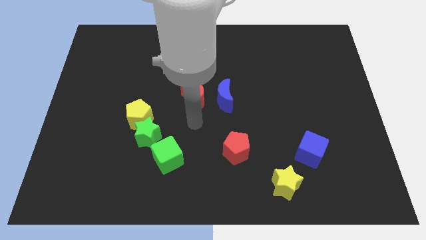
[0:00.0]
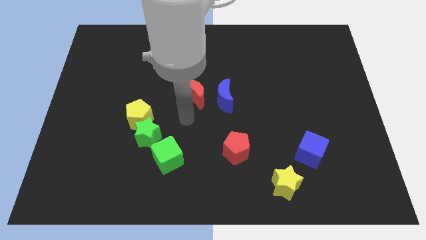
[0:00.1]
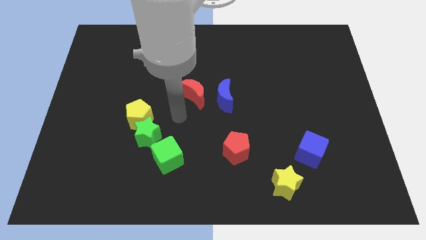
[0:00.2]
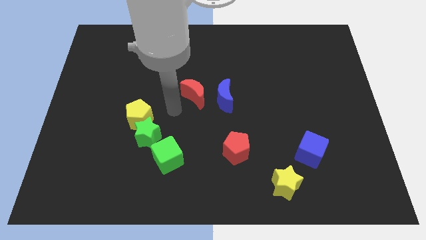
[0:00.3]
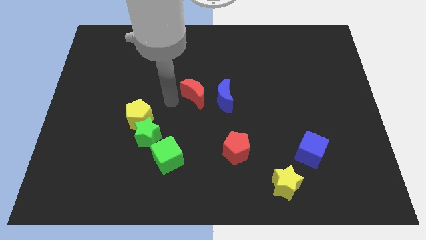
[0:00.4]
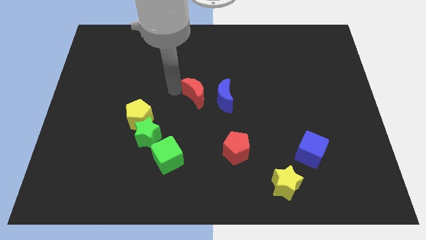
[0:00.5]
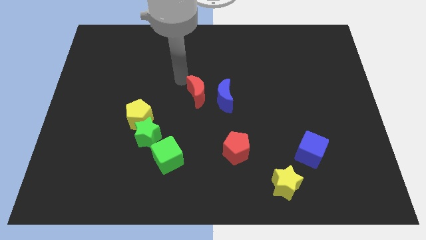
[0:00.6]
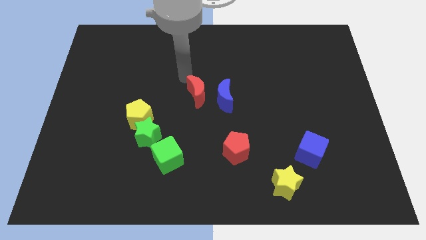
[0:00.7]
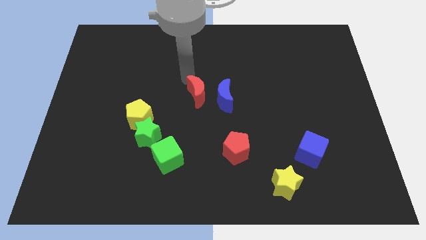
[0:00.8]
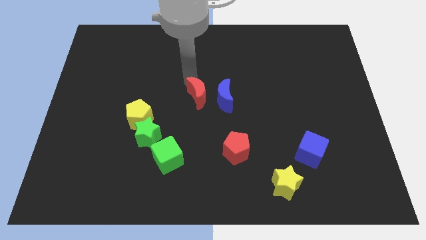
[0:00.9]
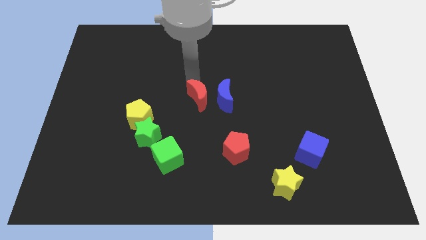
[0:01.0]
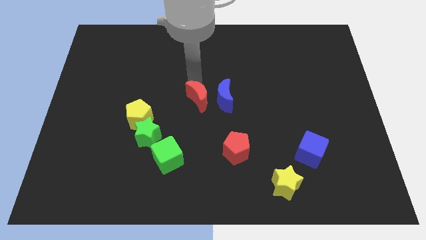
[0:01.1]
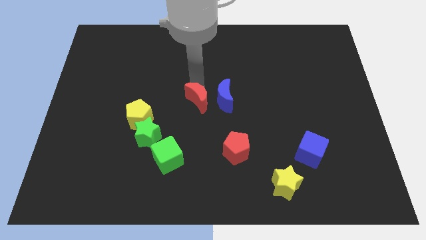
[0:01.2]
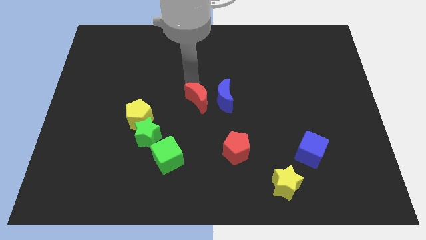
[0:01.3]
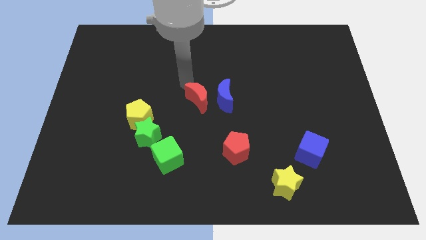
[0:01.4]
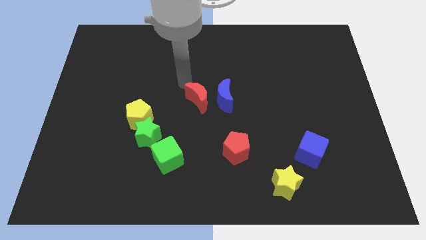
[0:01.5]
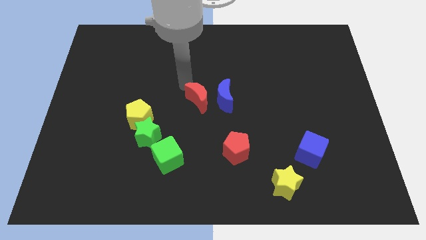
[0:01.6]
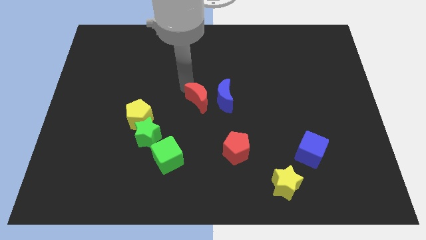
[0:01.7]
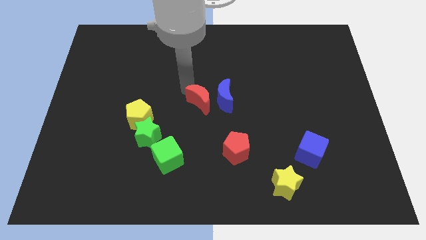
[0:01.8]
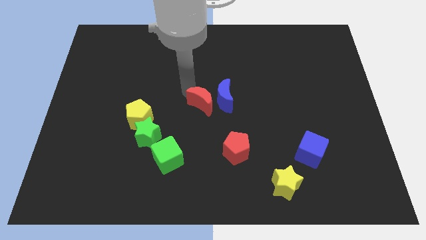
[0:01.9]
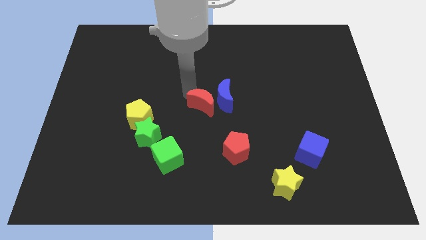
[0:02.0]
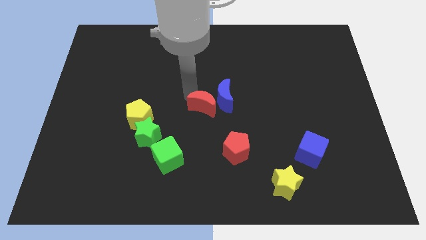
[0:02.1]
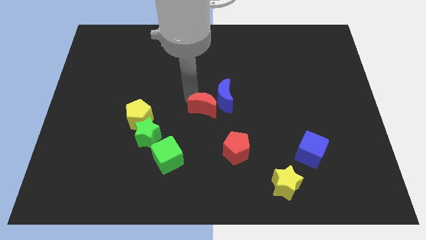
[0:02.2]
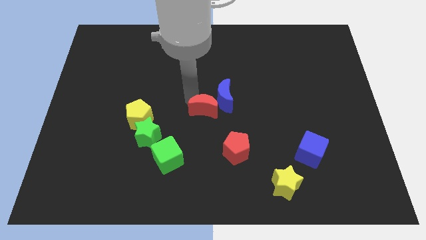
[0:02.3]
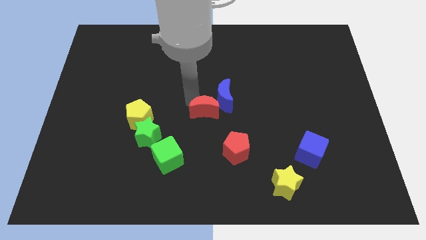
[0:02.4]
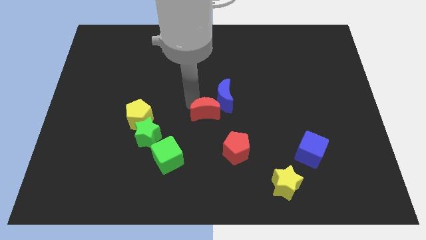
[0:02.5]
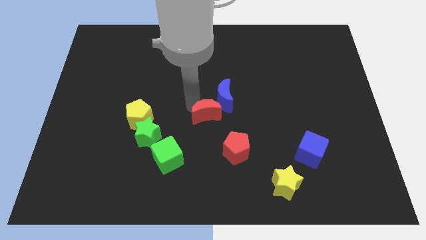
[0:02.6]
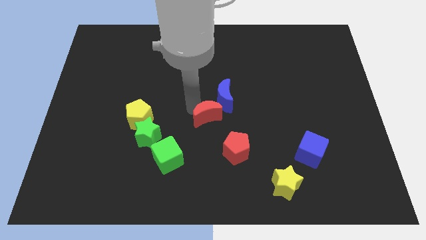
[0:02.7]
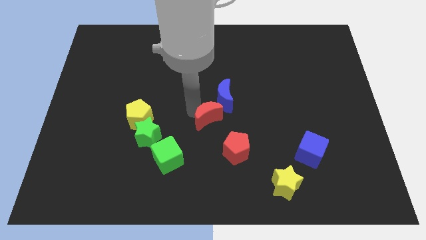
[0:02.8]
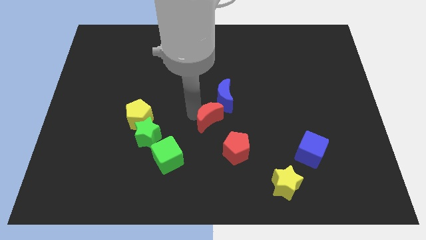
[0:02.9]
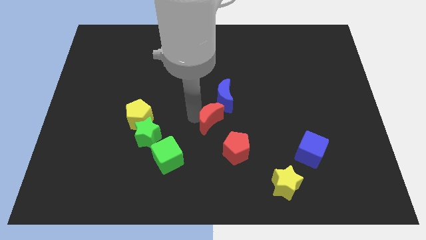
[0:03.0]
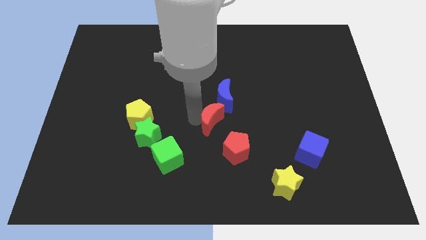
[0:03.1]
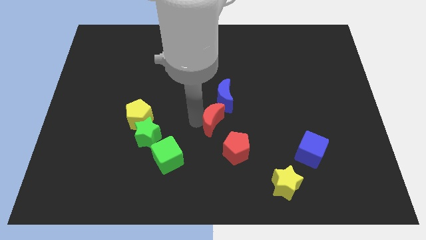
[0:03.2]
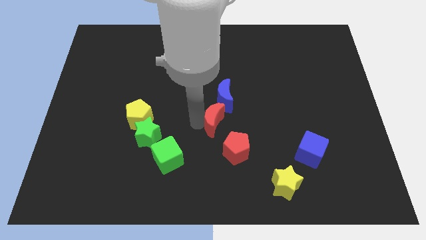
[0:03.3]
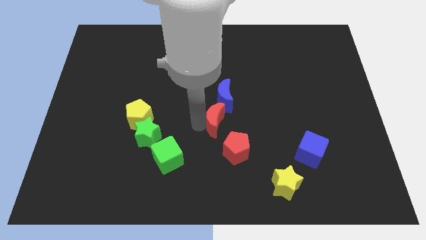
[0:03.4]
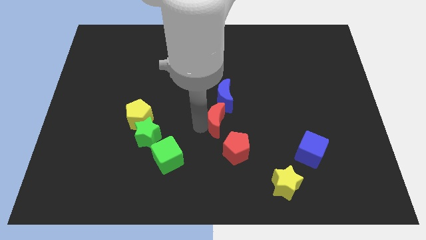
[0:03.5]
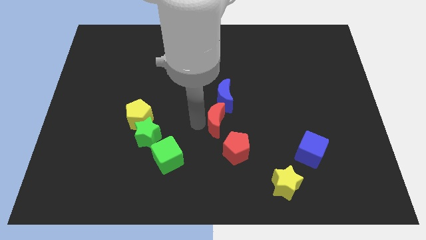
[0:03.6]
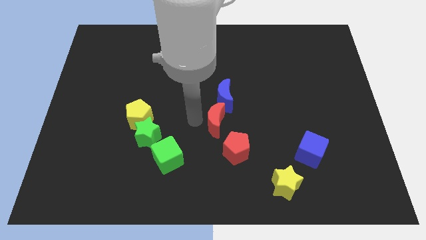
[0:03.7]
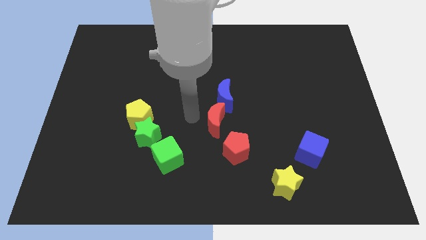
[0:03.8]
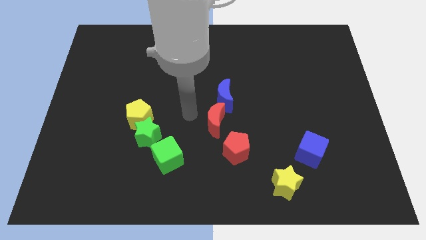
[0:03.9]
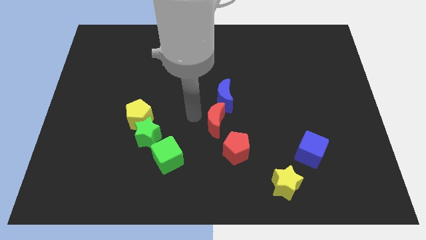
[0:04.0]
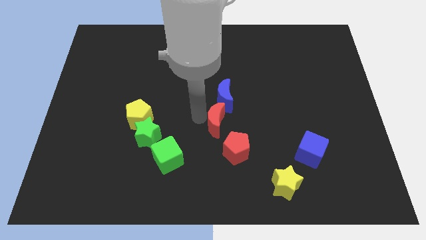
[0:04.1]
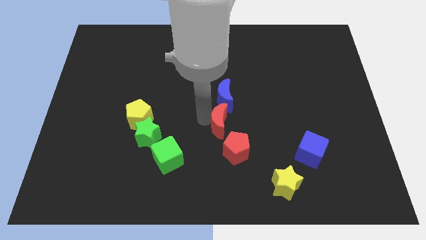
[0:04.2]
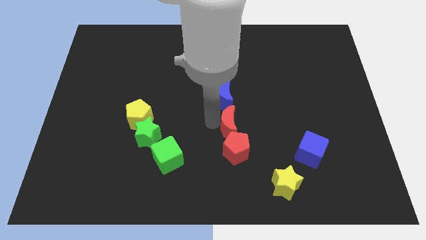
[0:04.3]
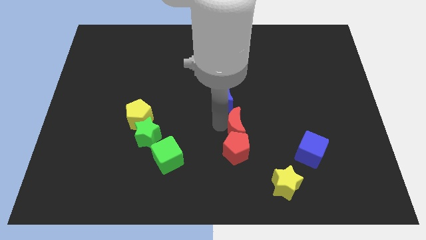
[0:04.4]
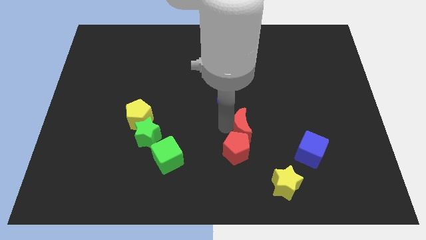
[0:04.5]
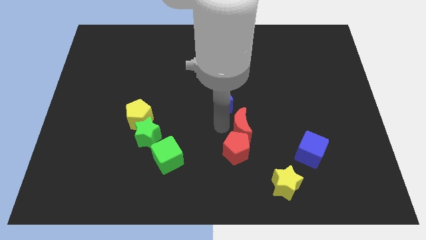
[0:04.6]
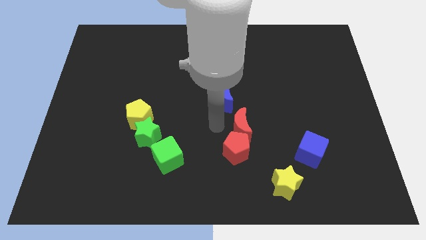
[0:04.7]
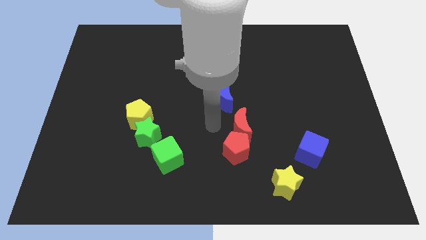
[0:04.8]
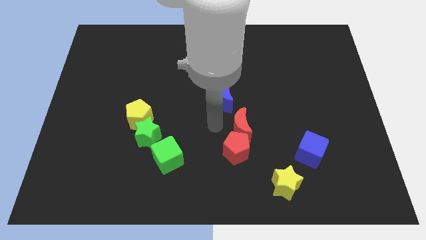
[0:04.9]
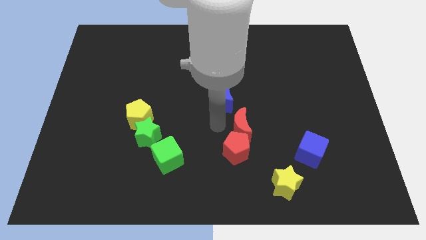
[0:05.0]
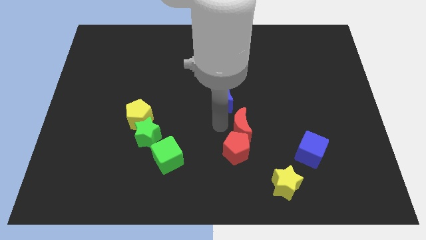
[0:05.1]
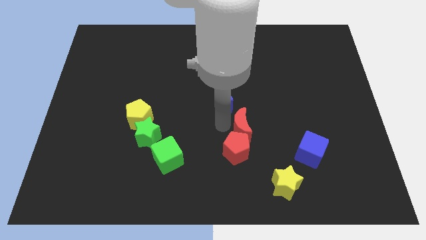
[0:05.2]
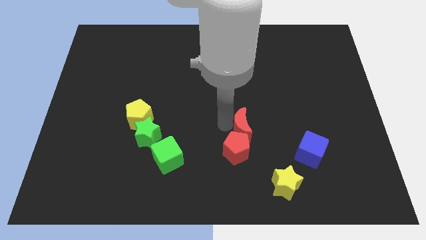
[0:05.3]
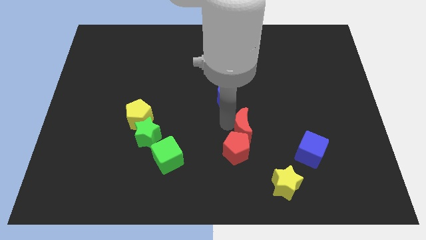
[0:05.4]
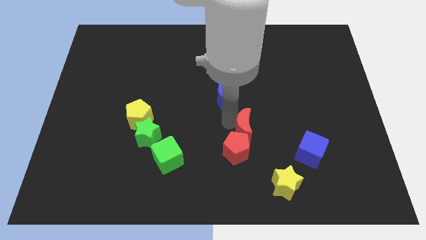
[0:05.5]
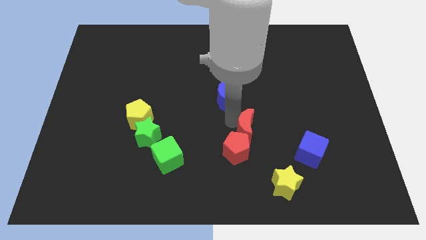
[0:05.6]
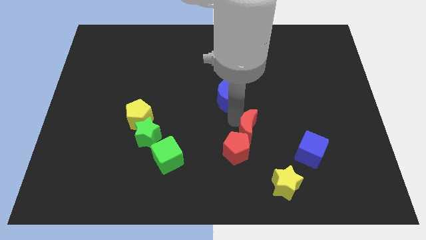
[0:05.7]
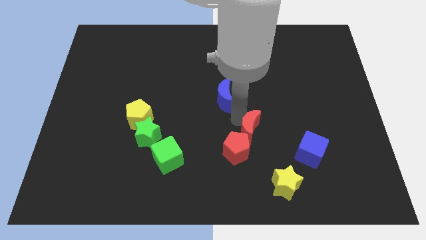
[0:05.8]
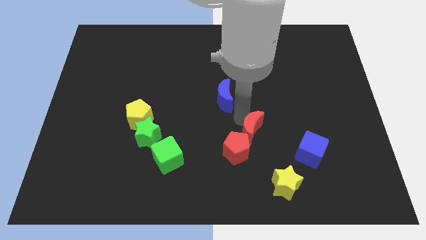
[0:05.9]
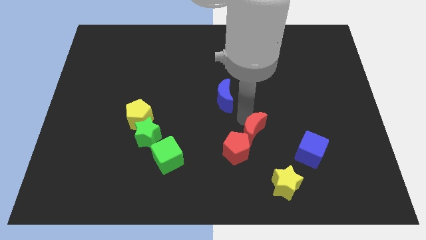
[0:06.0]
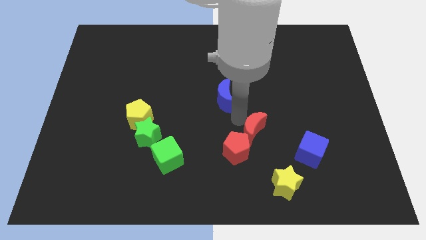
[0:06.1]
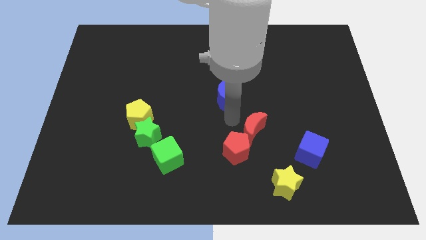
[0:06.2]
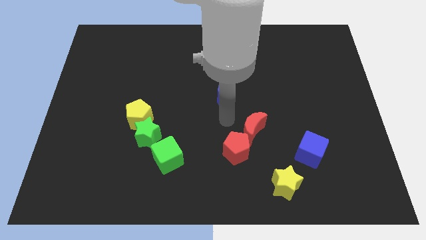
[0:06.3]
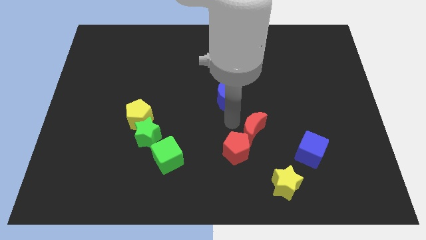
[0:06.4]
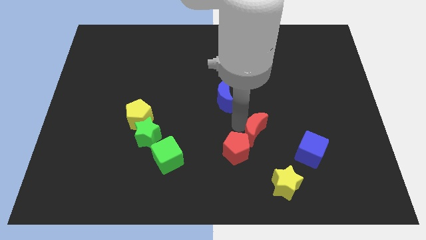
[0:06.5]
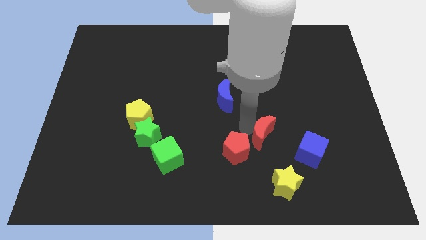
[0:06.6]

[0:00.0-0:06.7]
push the red moon to the top side of the yellow star
